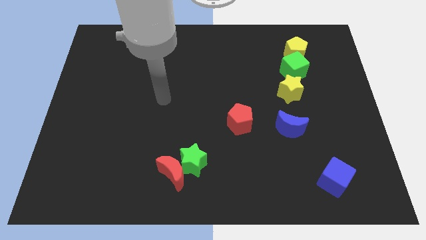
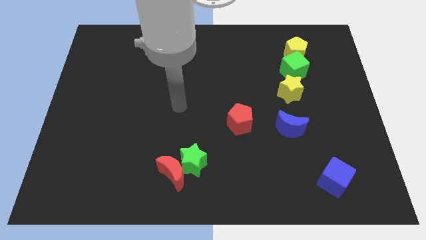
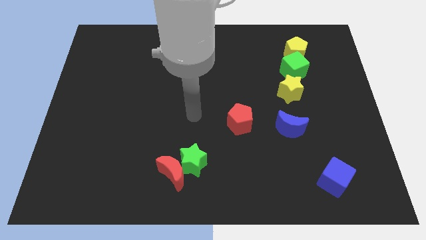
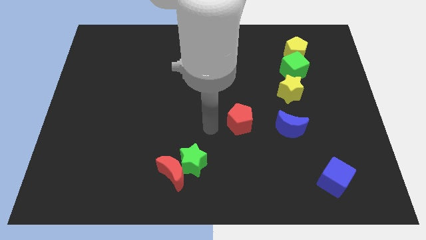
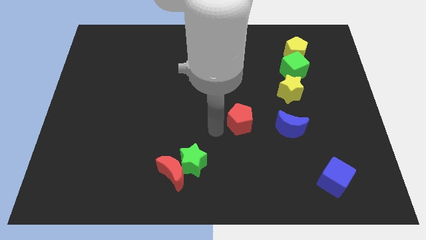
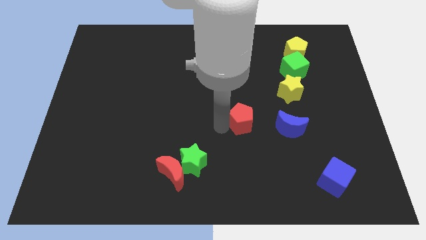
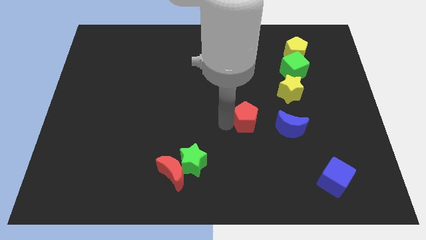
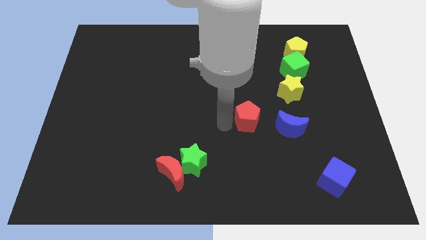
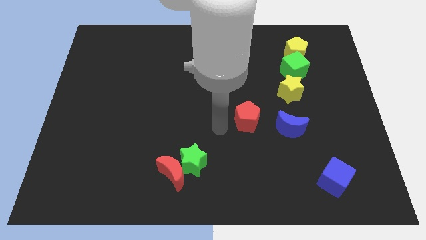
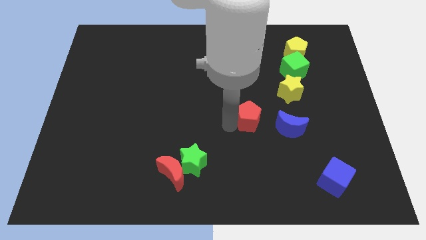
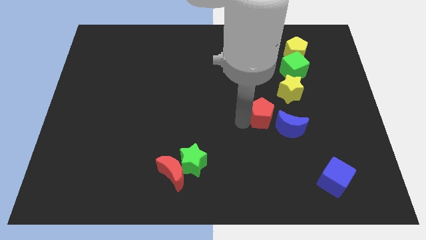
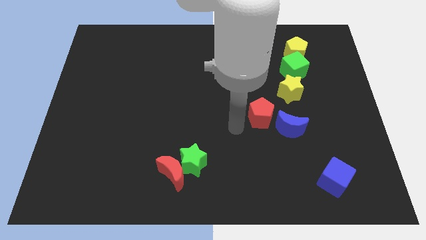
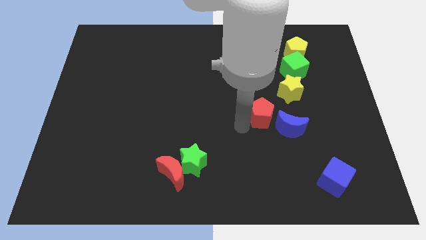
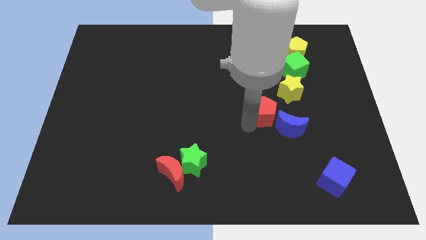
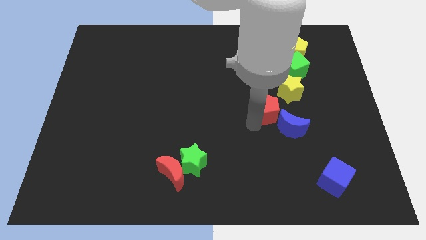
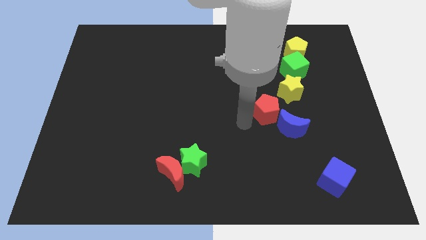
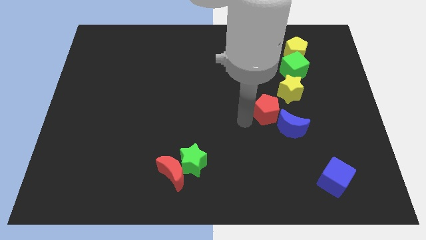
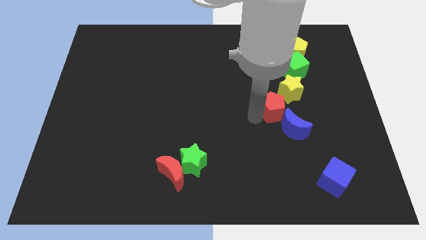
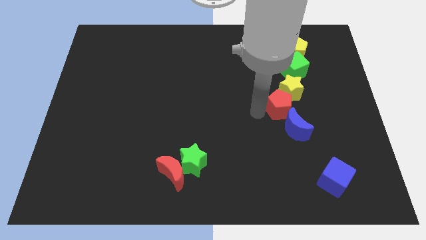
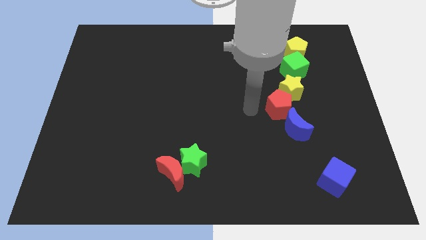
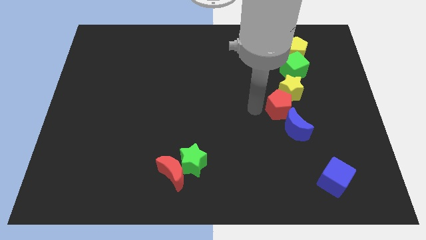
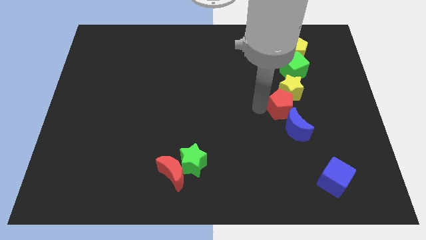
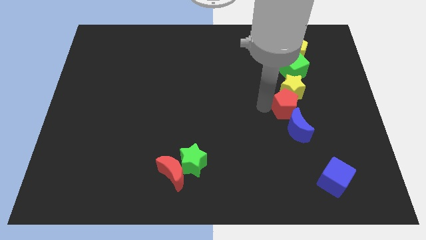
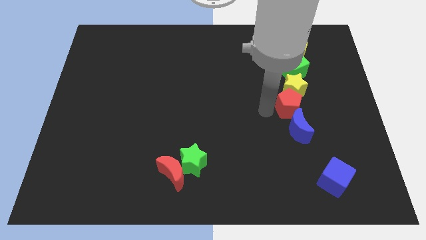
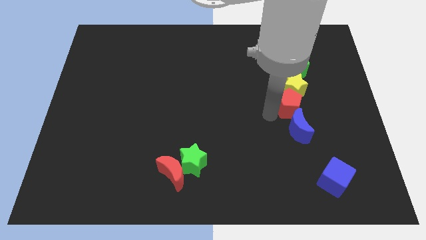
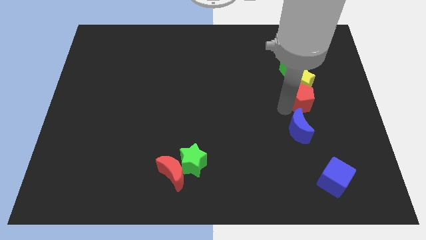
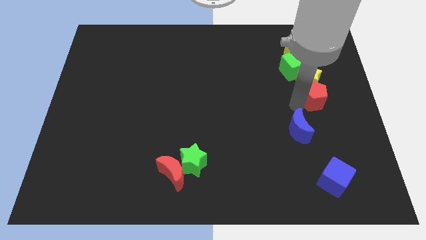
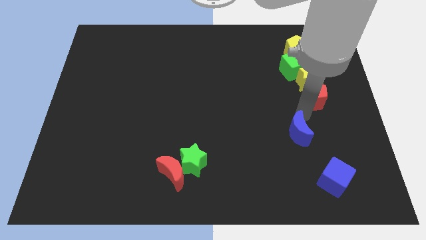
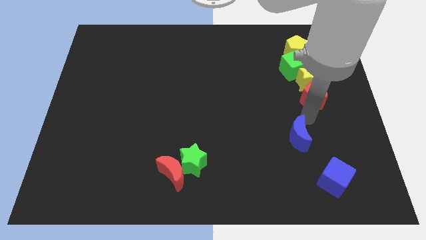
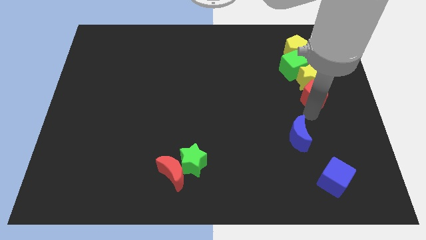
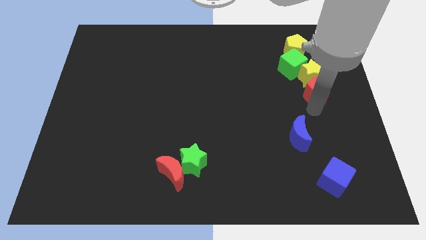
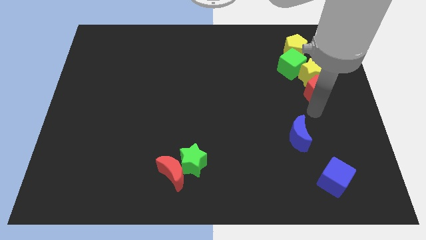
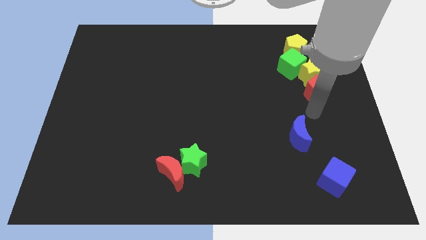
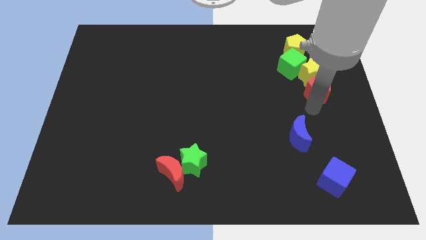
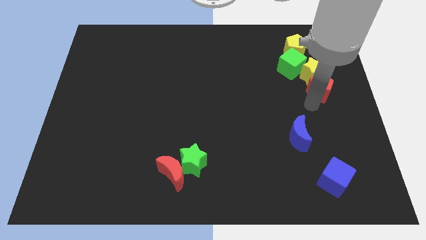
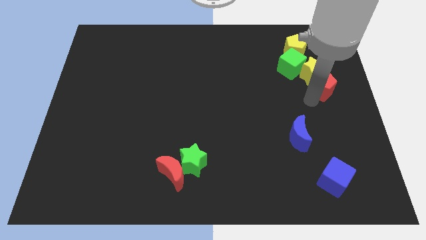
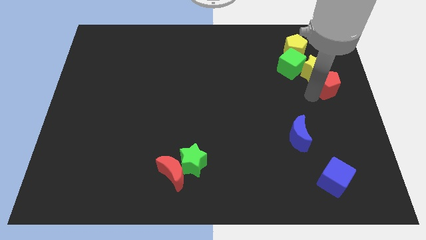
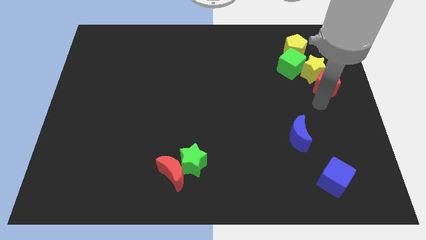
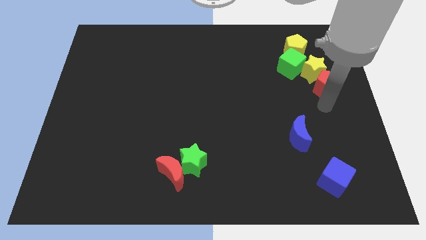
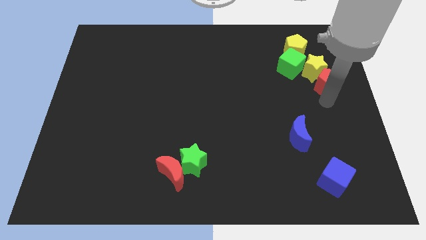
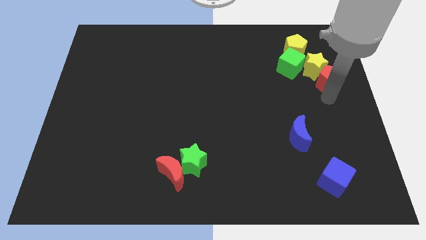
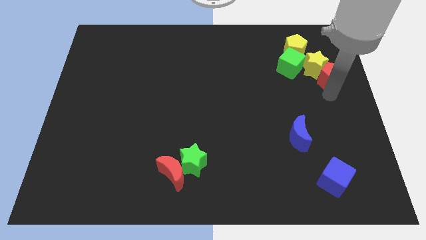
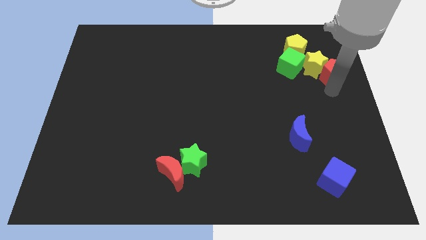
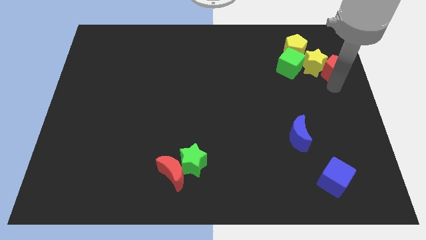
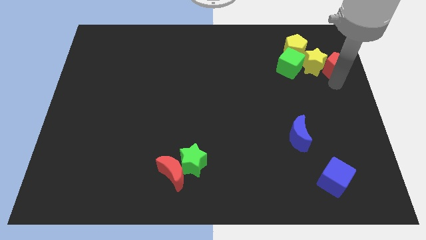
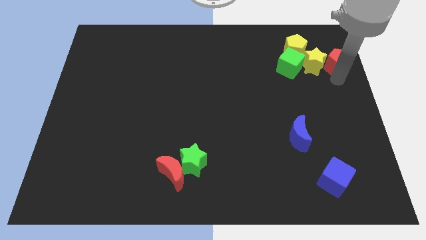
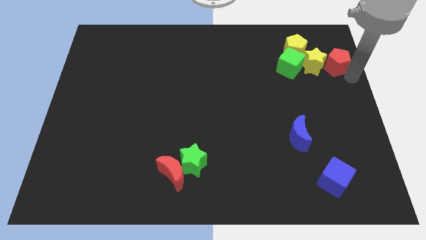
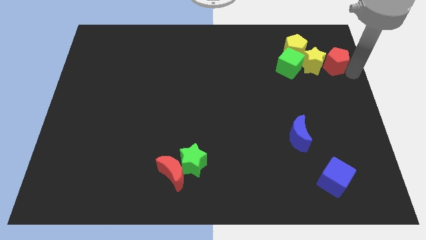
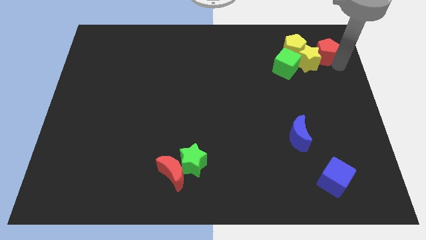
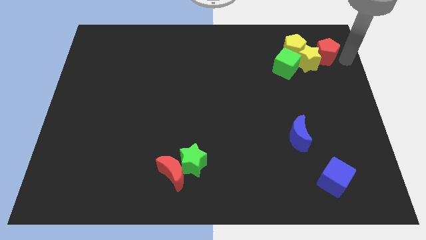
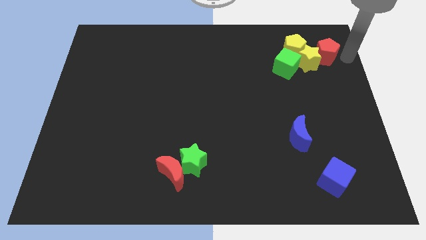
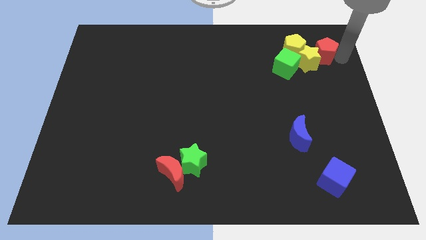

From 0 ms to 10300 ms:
move the red pentagon to the top right side of the green cube

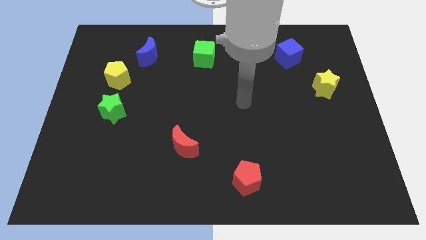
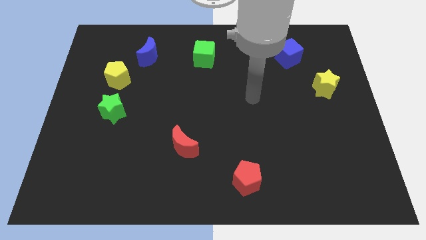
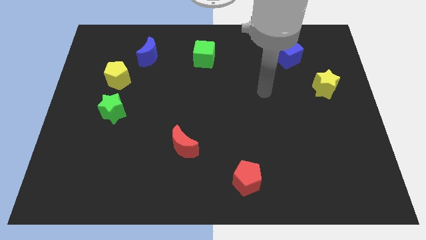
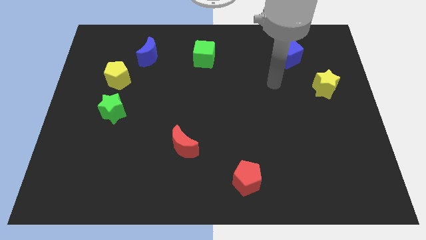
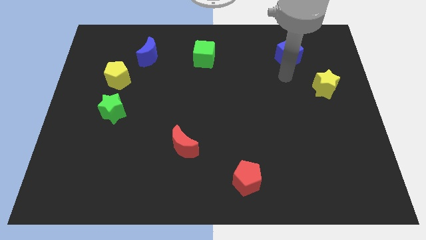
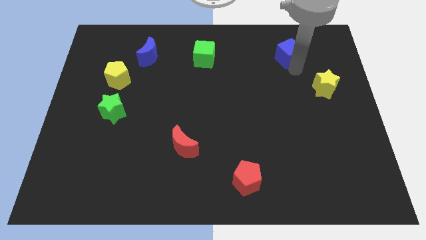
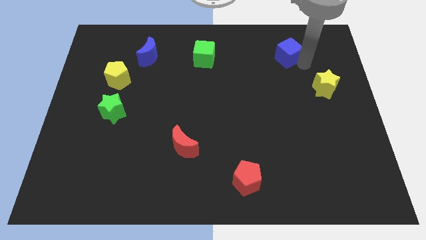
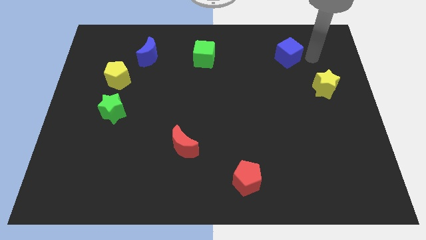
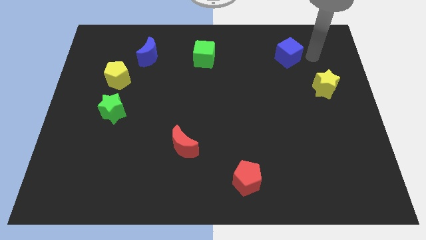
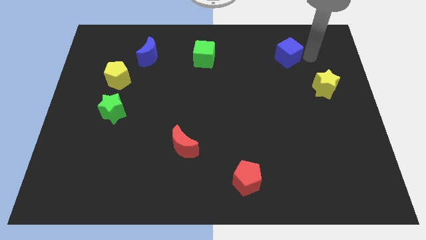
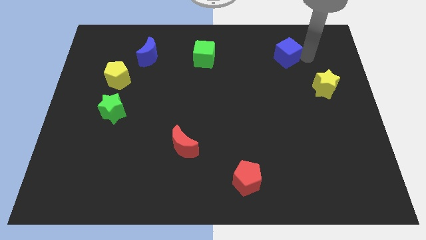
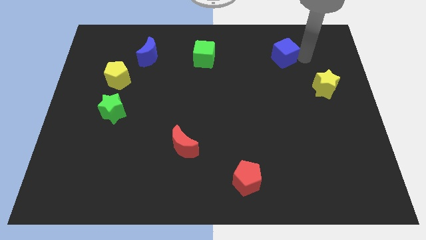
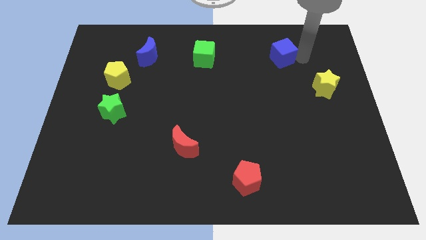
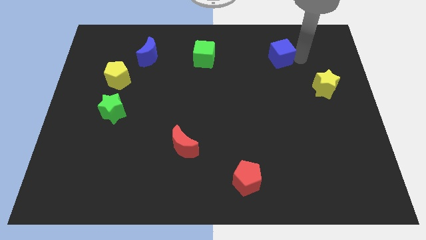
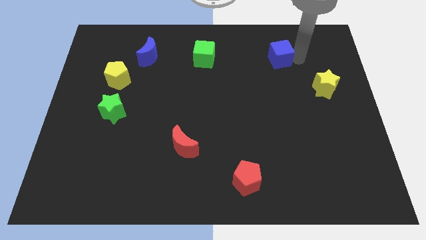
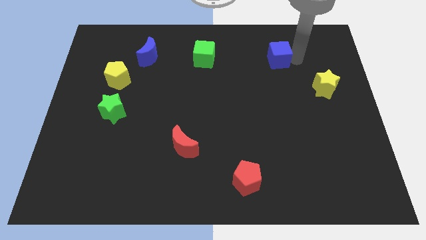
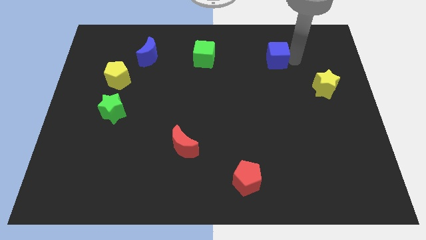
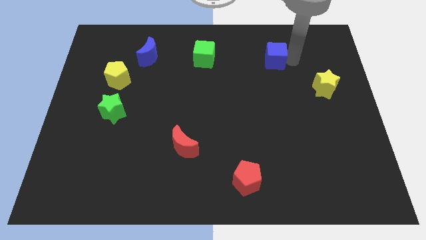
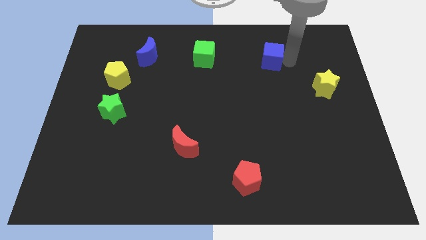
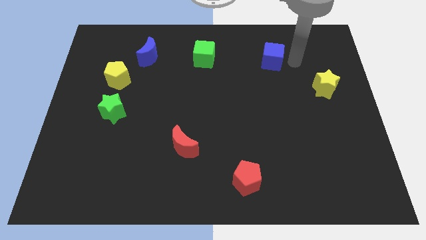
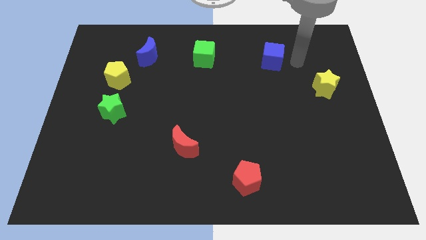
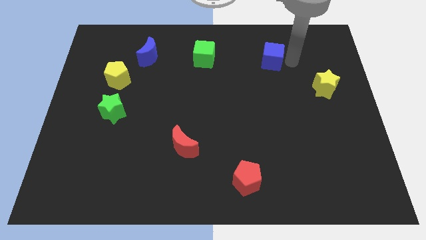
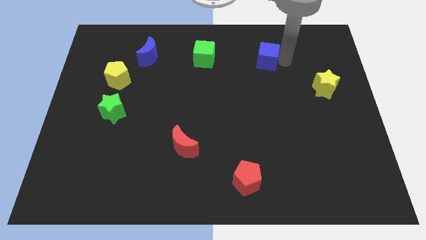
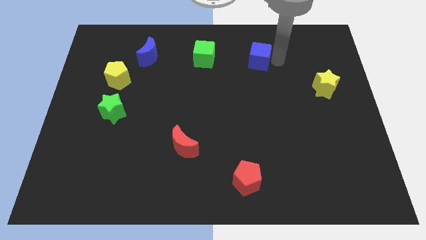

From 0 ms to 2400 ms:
put the blue cube to the right side of the green cube
